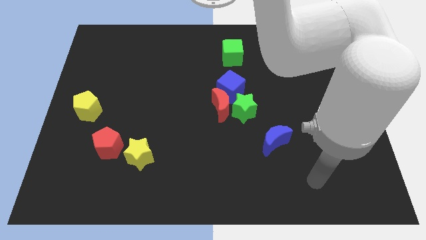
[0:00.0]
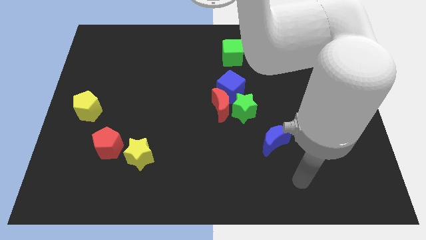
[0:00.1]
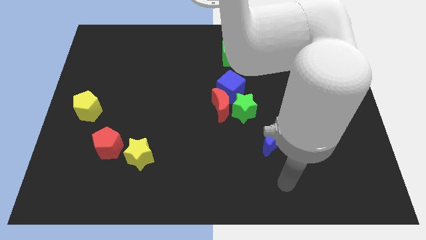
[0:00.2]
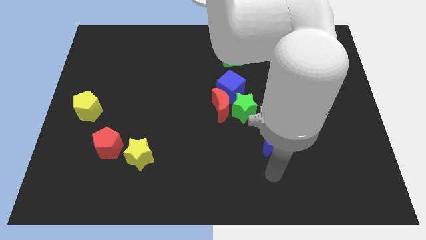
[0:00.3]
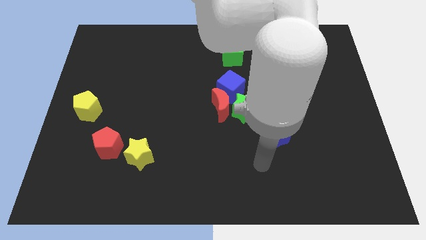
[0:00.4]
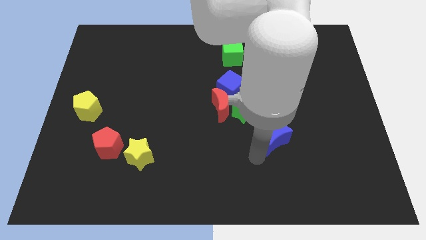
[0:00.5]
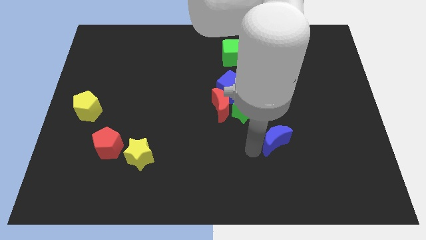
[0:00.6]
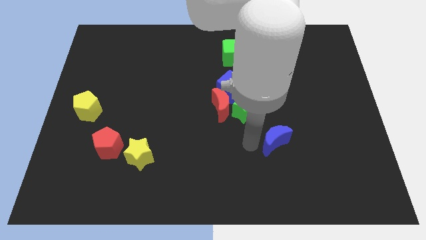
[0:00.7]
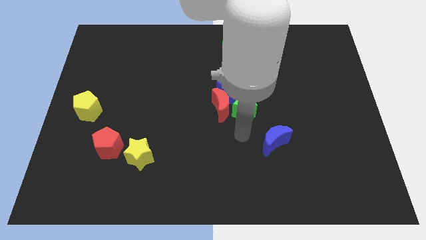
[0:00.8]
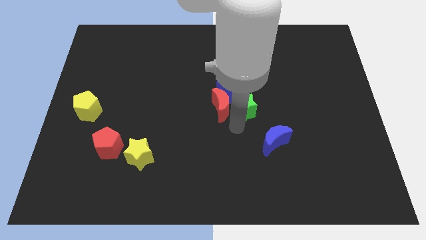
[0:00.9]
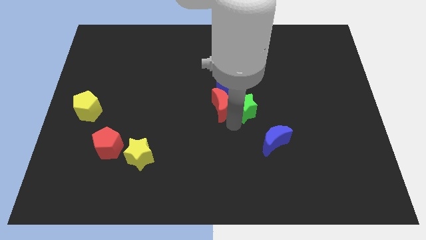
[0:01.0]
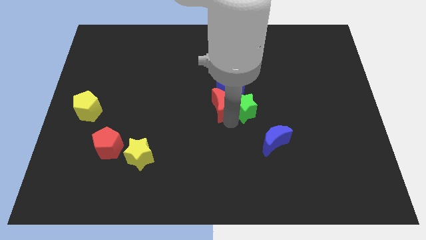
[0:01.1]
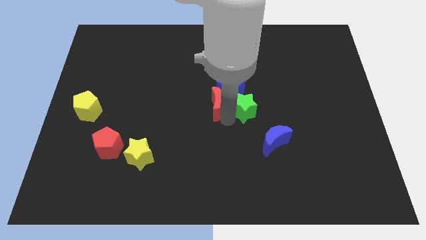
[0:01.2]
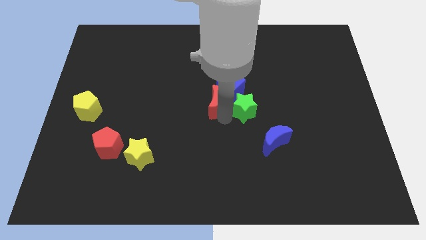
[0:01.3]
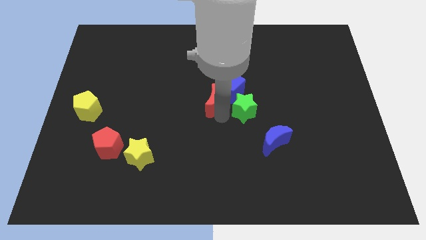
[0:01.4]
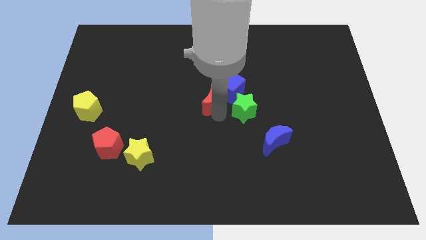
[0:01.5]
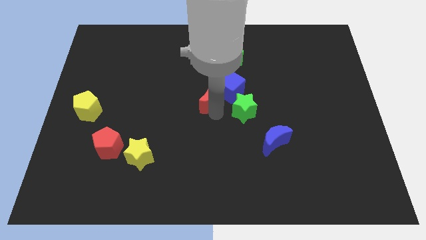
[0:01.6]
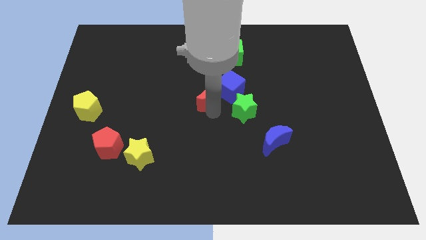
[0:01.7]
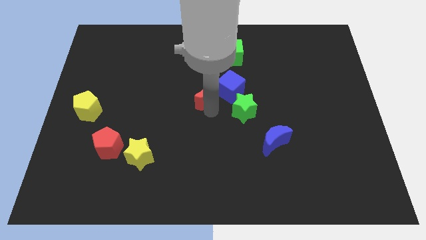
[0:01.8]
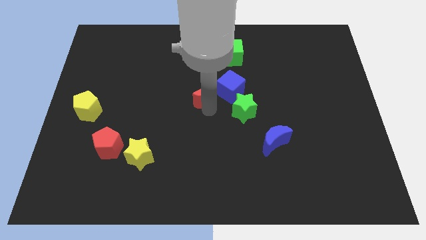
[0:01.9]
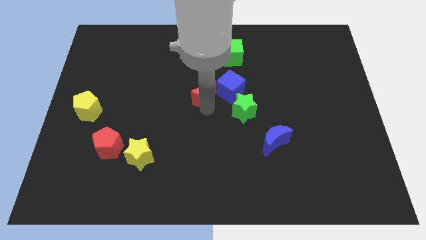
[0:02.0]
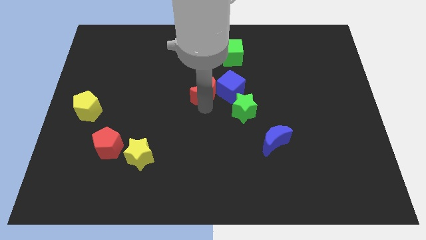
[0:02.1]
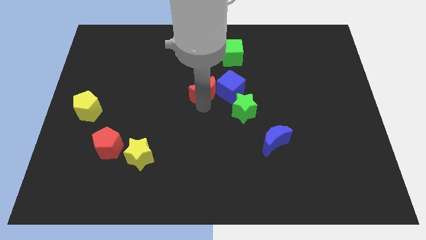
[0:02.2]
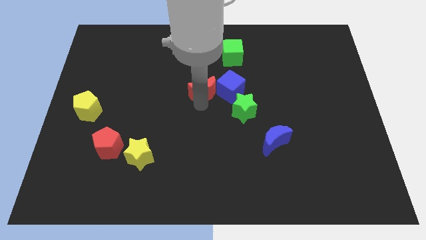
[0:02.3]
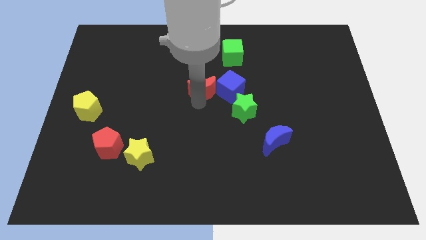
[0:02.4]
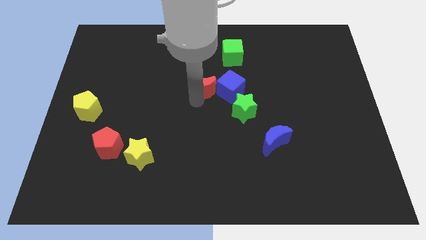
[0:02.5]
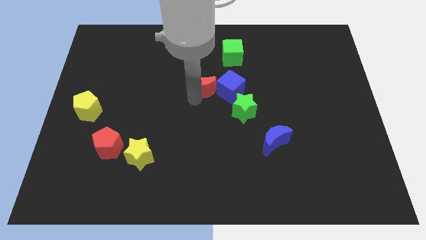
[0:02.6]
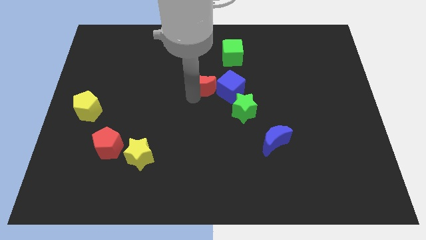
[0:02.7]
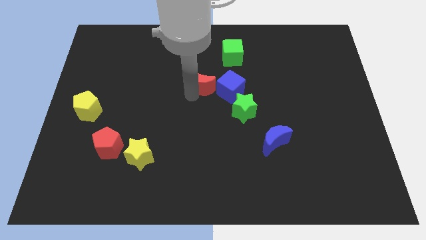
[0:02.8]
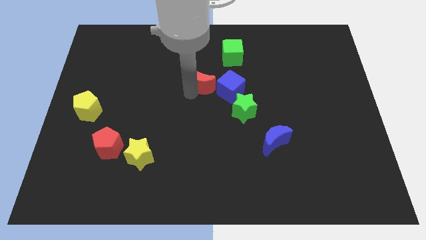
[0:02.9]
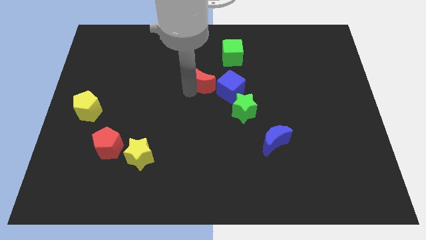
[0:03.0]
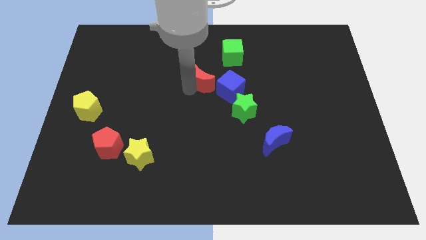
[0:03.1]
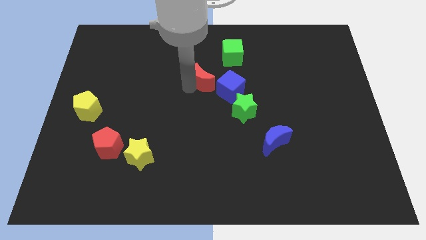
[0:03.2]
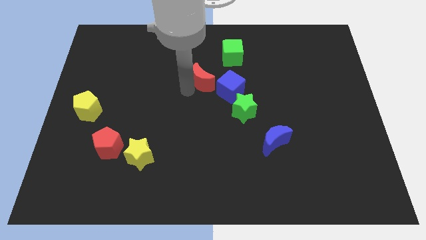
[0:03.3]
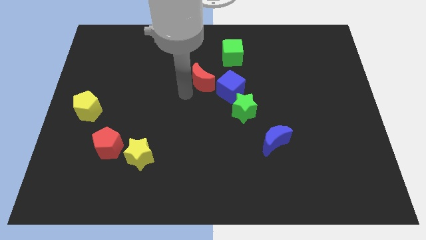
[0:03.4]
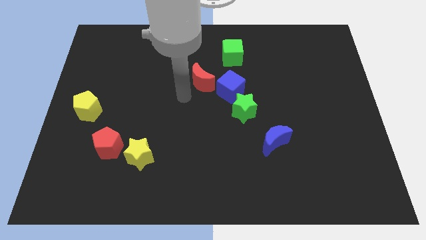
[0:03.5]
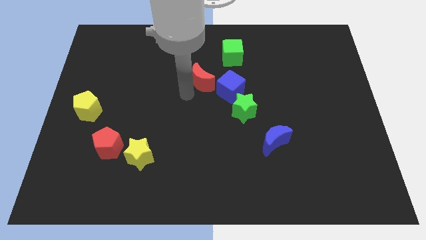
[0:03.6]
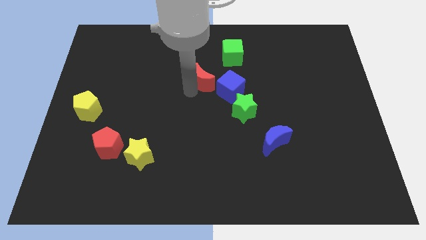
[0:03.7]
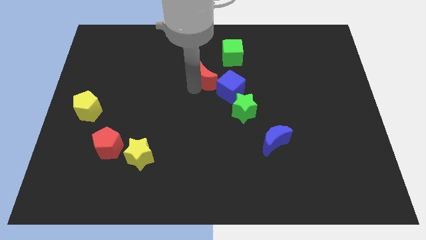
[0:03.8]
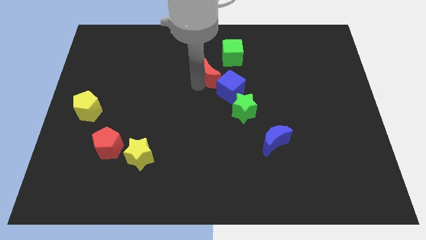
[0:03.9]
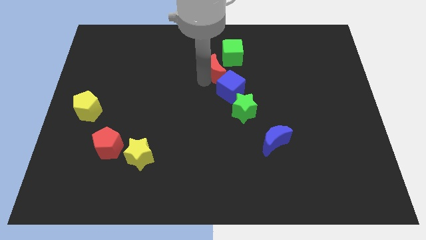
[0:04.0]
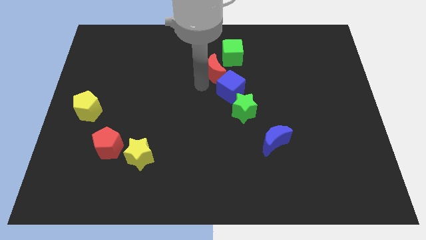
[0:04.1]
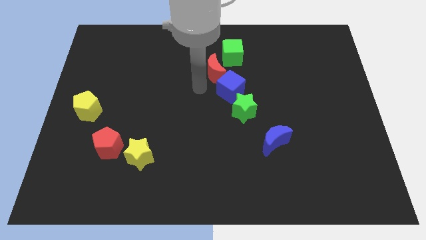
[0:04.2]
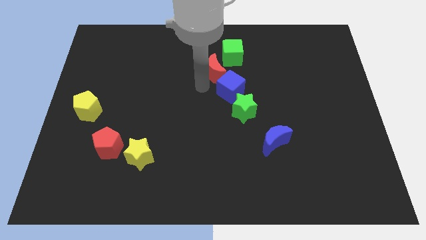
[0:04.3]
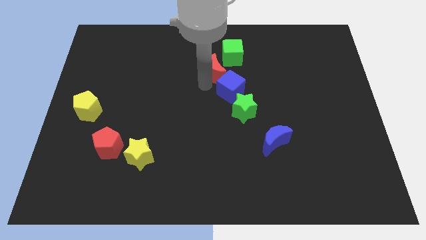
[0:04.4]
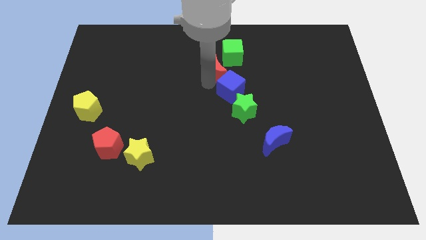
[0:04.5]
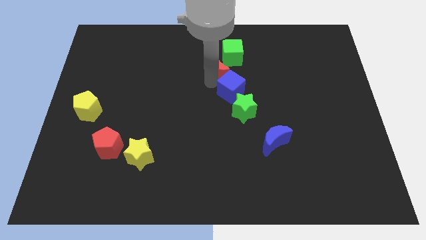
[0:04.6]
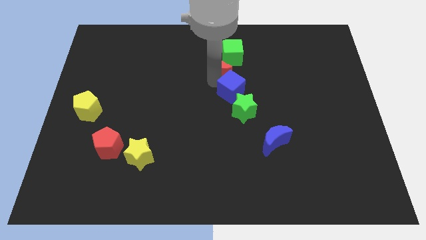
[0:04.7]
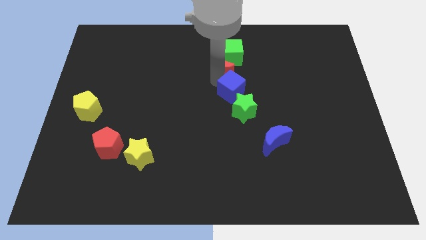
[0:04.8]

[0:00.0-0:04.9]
put the red moon towards the green cube

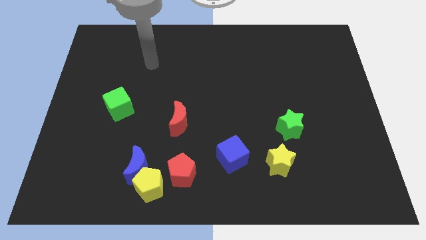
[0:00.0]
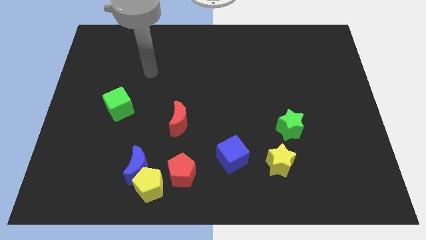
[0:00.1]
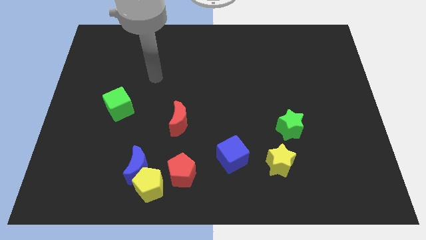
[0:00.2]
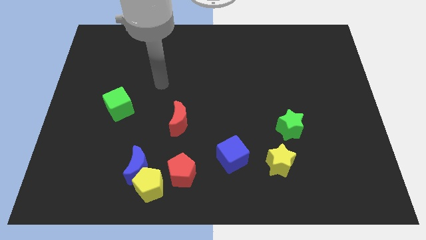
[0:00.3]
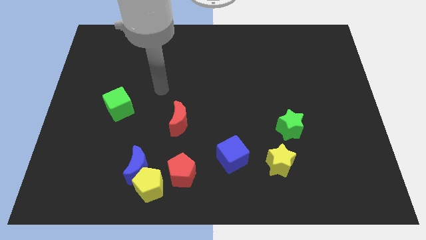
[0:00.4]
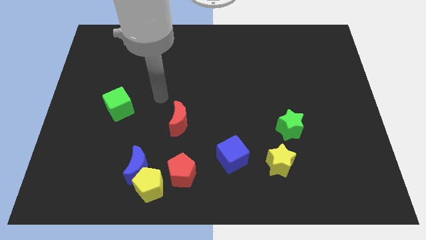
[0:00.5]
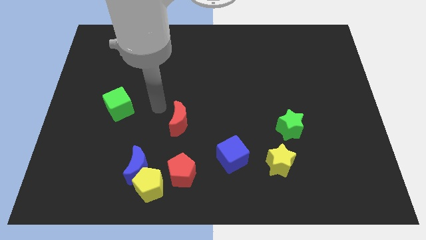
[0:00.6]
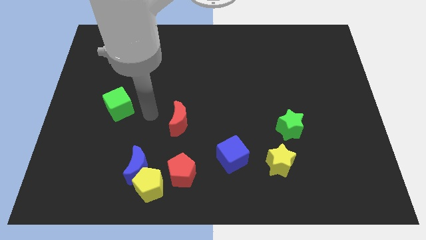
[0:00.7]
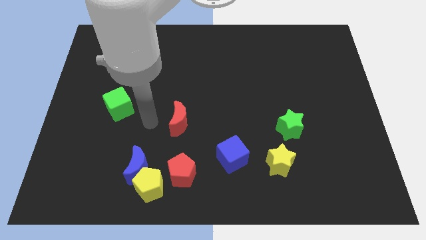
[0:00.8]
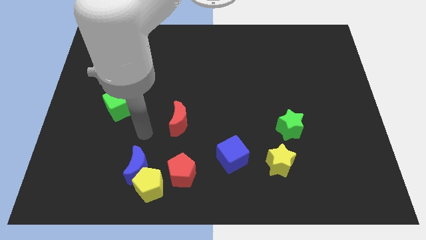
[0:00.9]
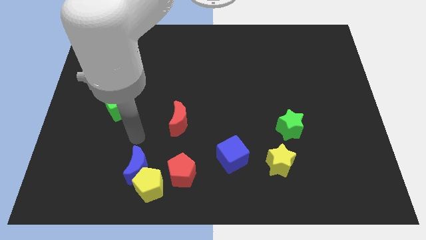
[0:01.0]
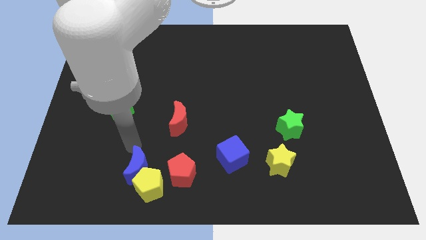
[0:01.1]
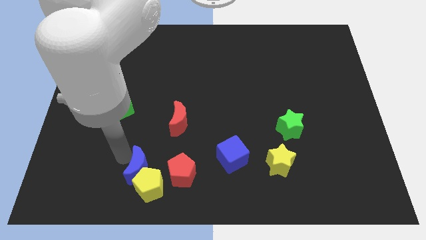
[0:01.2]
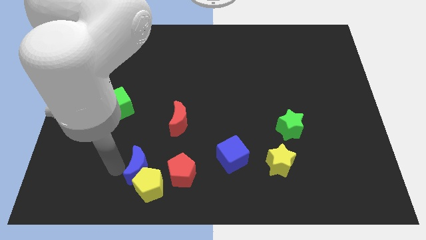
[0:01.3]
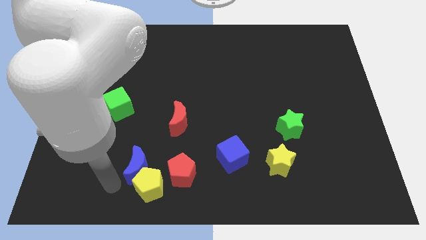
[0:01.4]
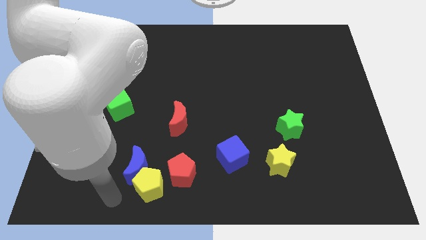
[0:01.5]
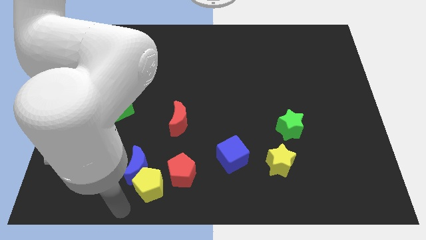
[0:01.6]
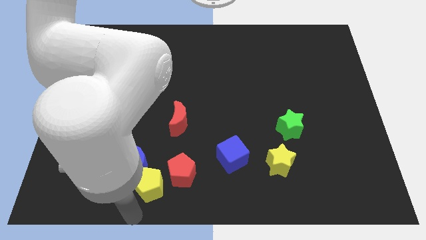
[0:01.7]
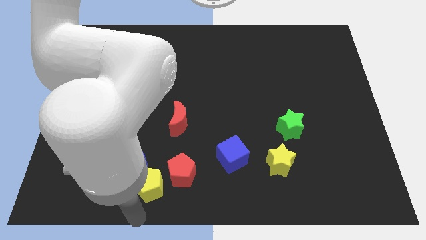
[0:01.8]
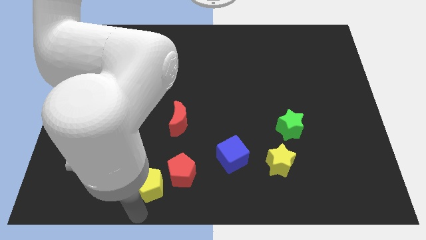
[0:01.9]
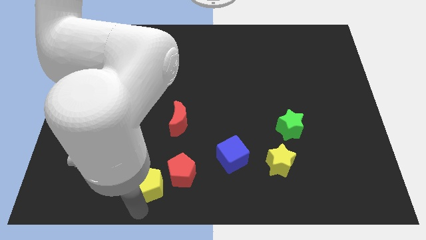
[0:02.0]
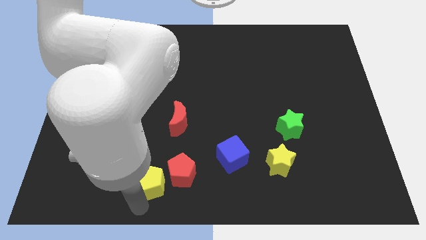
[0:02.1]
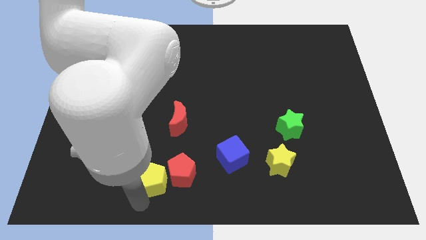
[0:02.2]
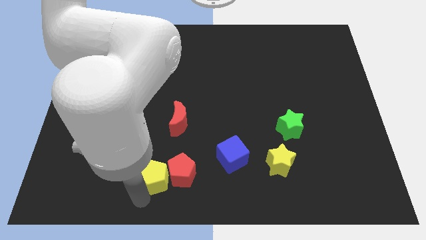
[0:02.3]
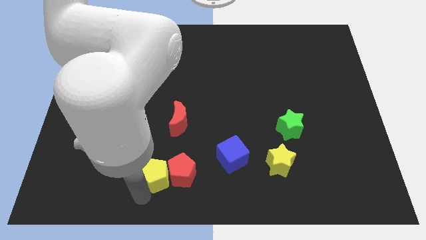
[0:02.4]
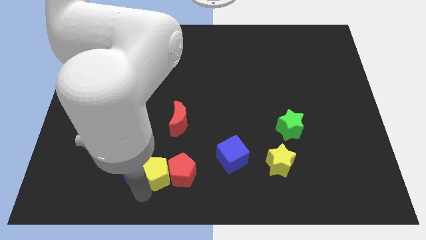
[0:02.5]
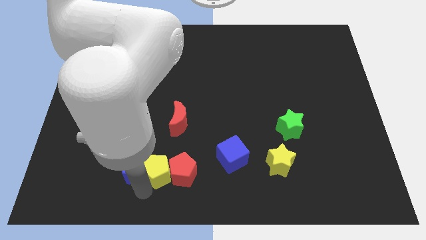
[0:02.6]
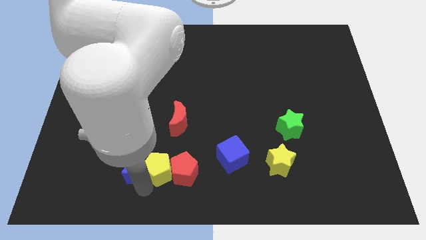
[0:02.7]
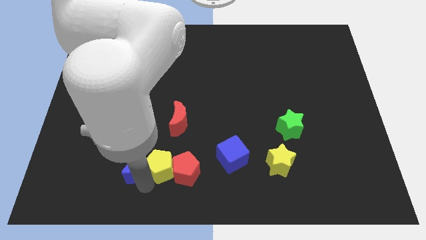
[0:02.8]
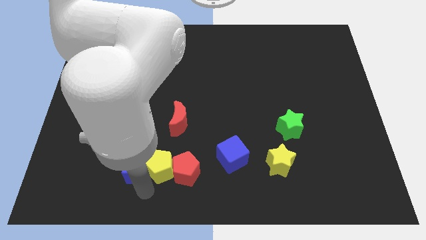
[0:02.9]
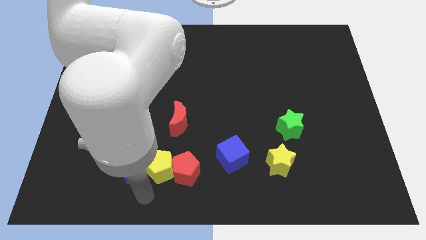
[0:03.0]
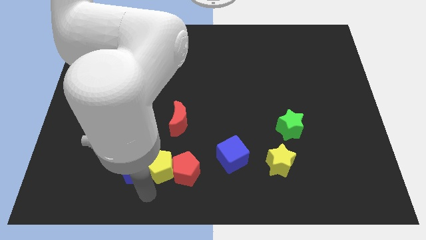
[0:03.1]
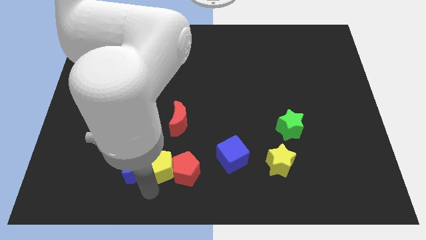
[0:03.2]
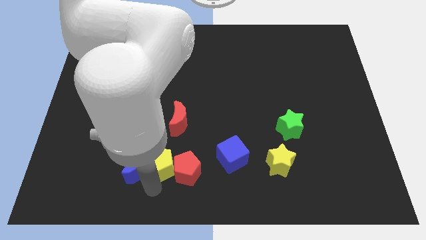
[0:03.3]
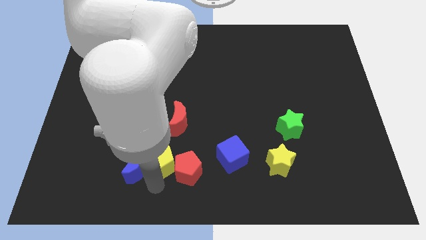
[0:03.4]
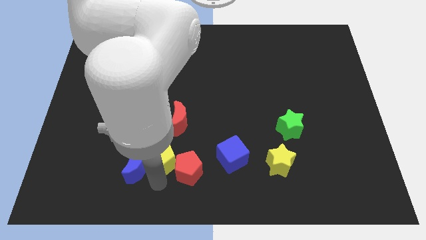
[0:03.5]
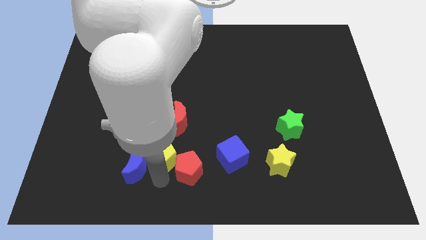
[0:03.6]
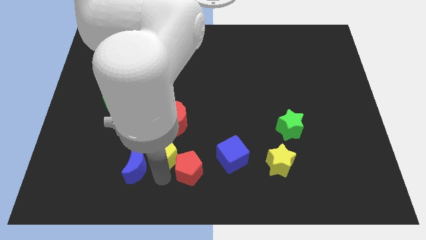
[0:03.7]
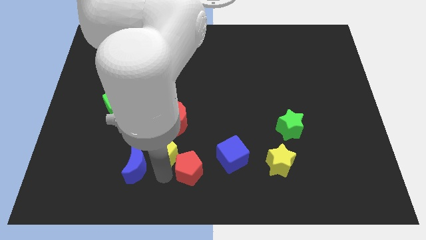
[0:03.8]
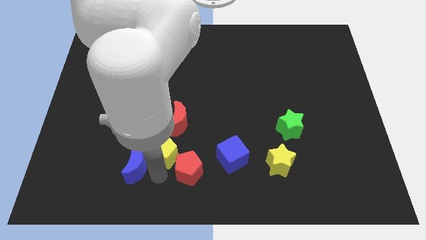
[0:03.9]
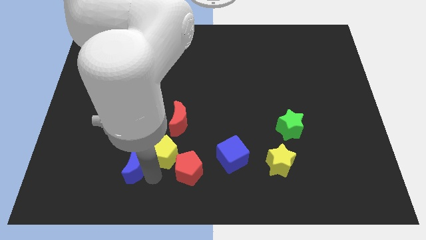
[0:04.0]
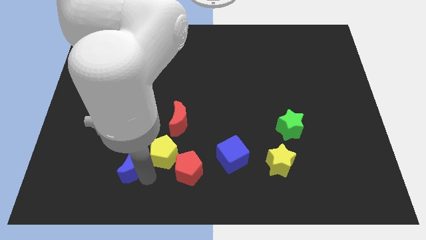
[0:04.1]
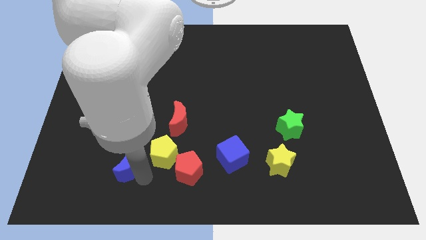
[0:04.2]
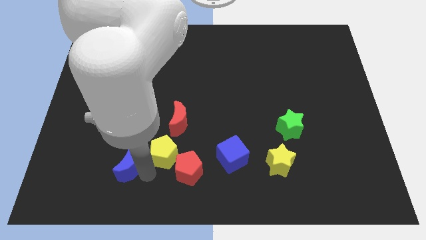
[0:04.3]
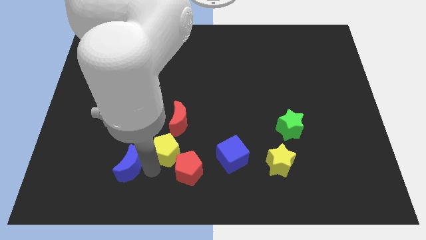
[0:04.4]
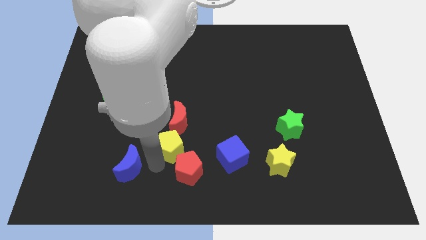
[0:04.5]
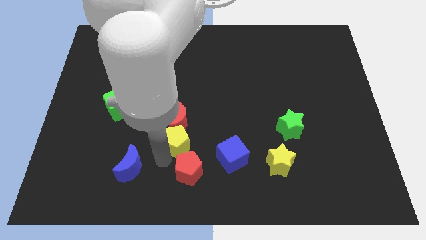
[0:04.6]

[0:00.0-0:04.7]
put the yellow pentagon to the red moon
